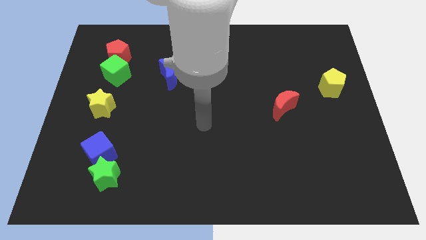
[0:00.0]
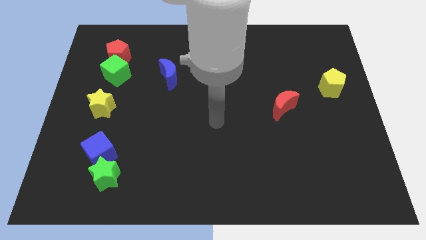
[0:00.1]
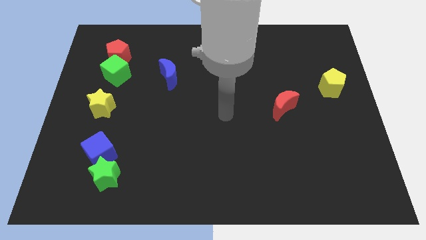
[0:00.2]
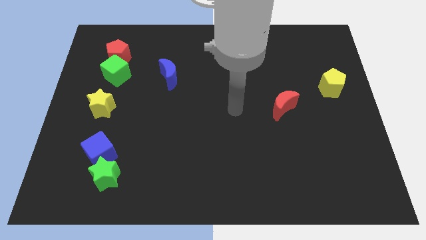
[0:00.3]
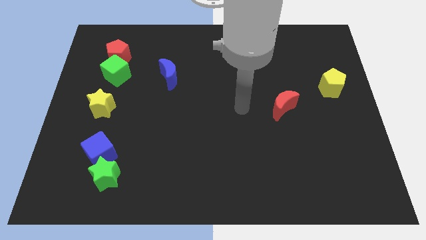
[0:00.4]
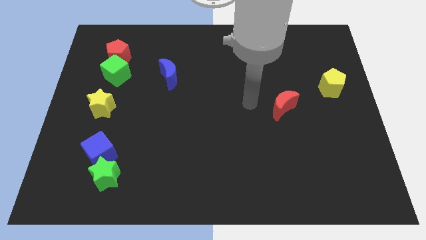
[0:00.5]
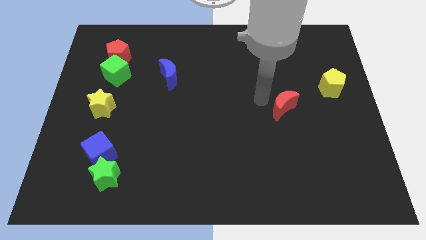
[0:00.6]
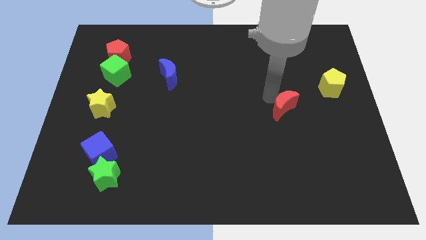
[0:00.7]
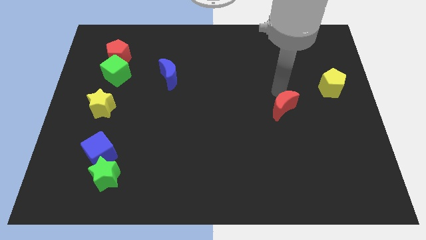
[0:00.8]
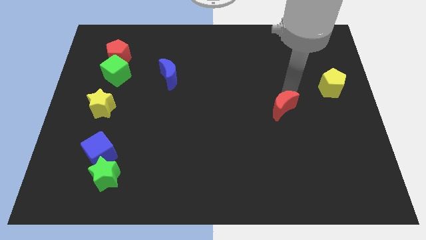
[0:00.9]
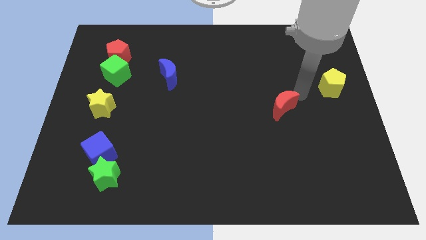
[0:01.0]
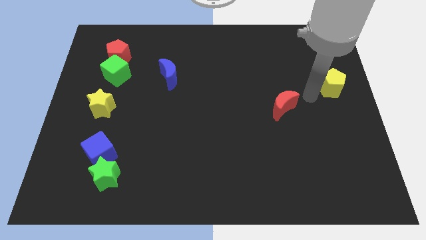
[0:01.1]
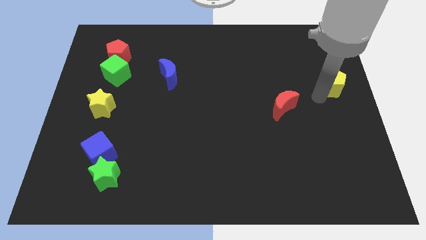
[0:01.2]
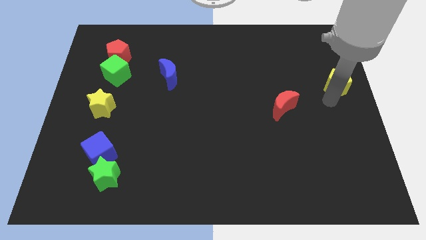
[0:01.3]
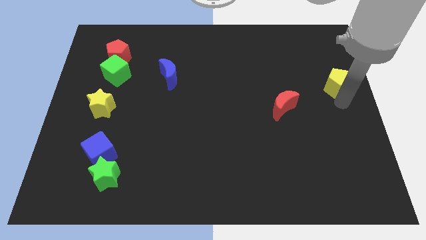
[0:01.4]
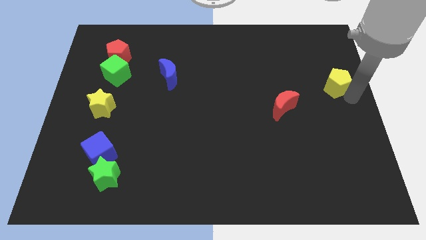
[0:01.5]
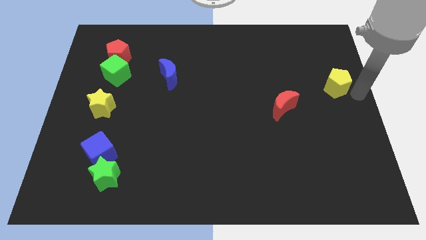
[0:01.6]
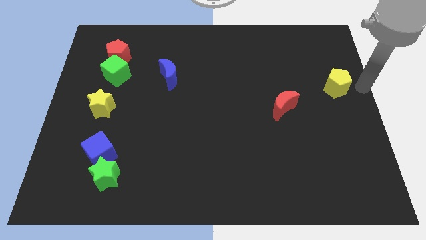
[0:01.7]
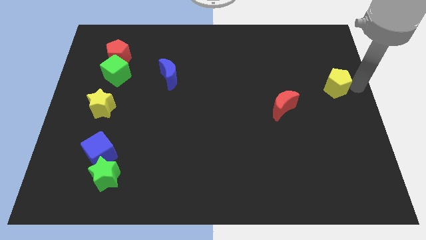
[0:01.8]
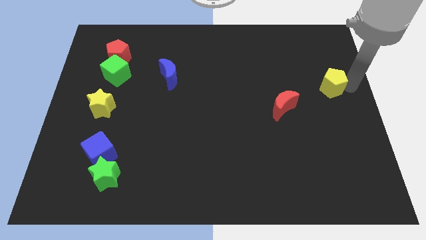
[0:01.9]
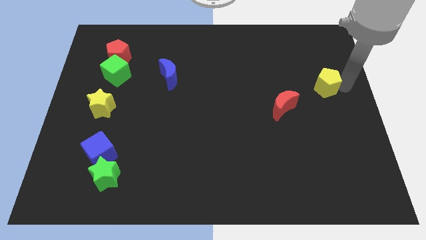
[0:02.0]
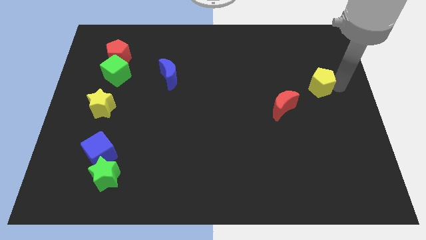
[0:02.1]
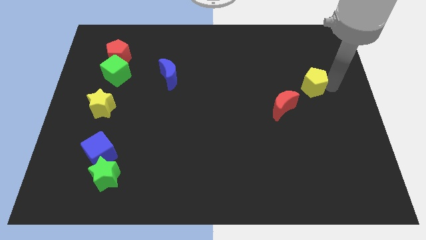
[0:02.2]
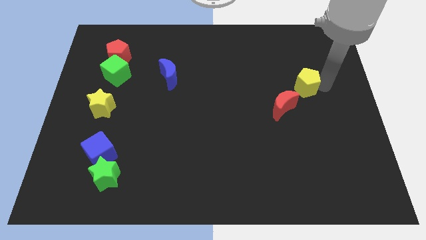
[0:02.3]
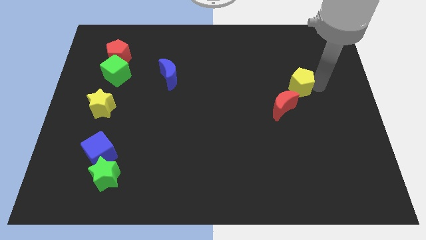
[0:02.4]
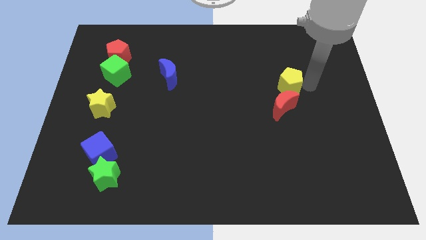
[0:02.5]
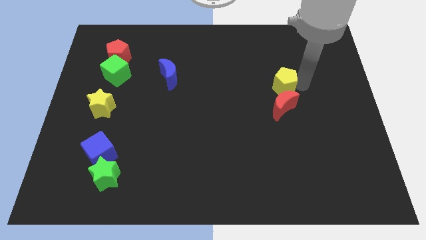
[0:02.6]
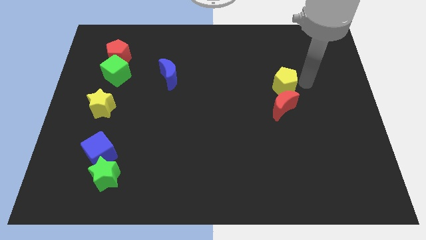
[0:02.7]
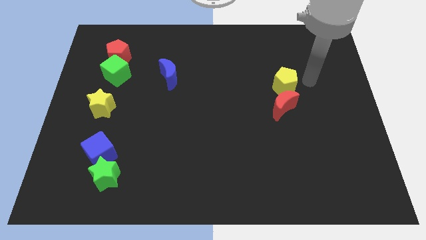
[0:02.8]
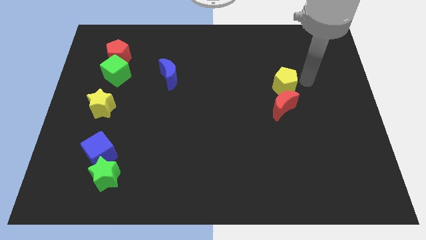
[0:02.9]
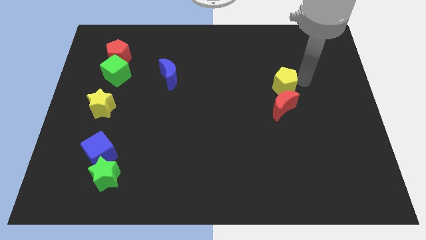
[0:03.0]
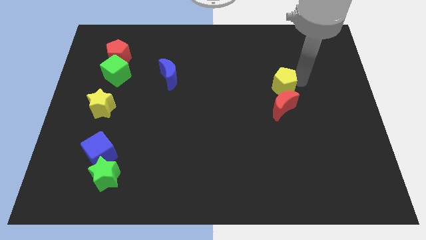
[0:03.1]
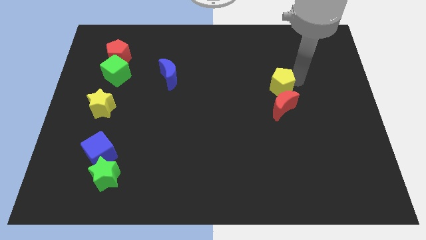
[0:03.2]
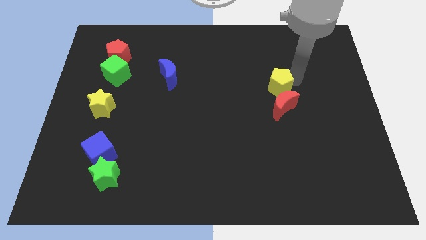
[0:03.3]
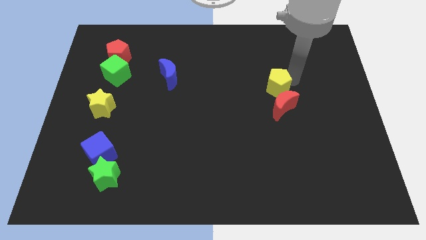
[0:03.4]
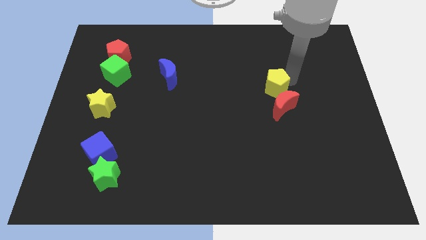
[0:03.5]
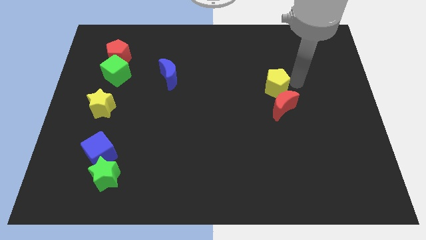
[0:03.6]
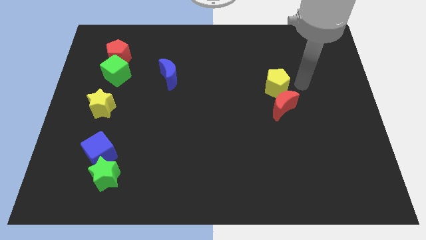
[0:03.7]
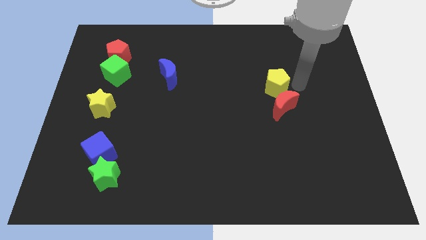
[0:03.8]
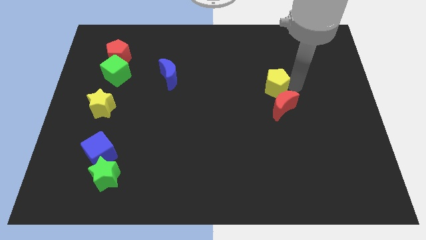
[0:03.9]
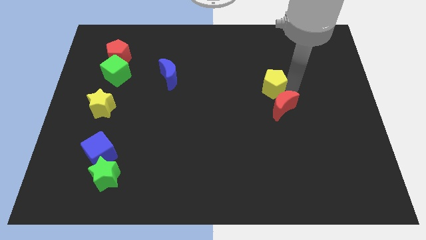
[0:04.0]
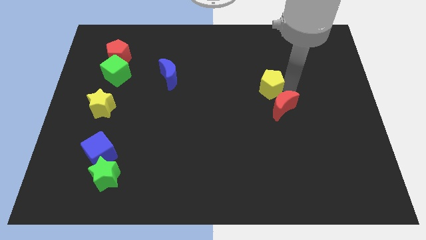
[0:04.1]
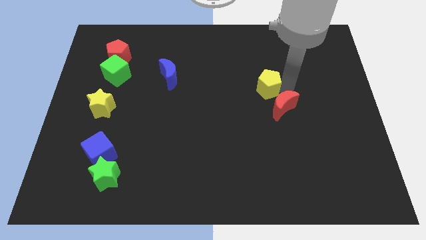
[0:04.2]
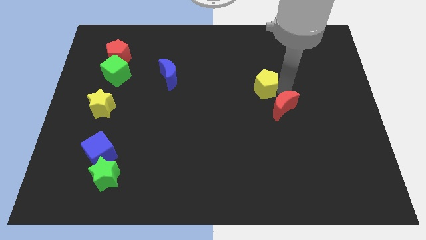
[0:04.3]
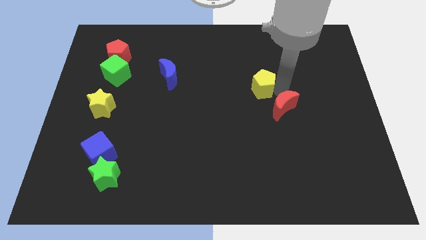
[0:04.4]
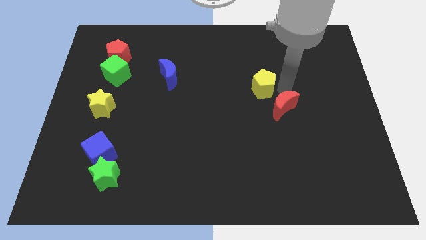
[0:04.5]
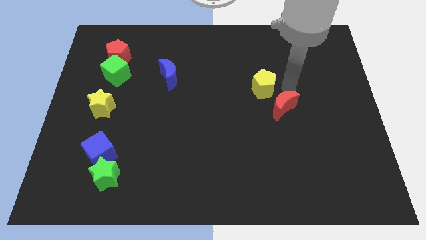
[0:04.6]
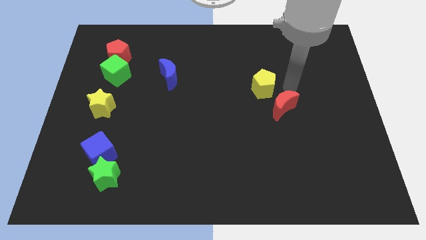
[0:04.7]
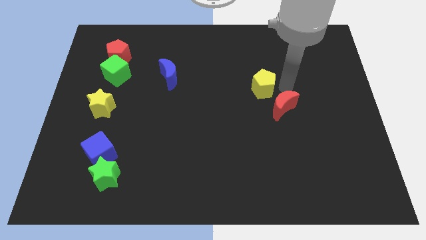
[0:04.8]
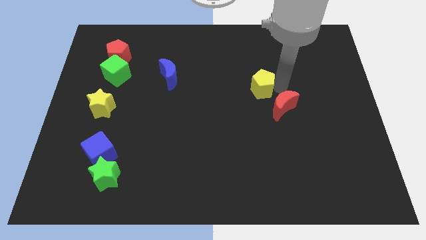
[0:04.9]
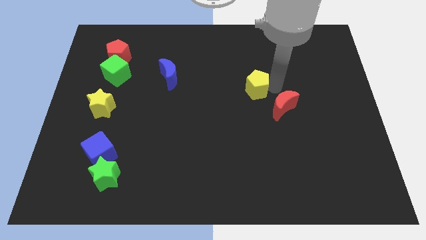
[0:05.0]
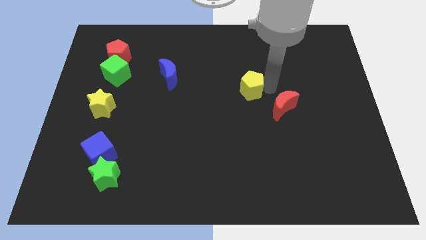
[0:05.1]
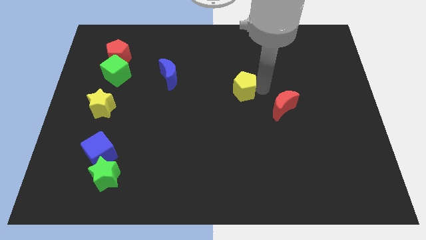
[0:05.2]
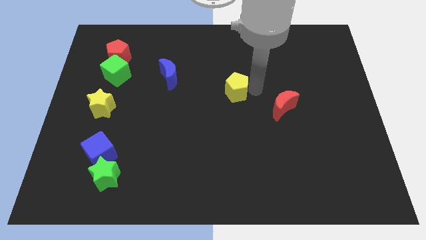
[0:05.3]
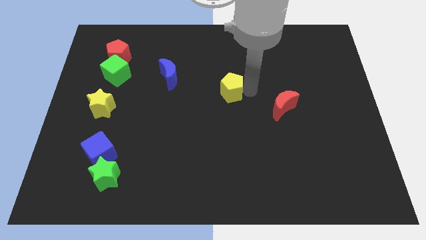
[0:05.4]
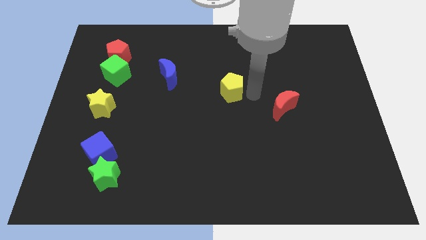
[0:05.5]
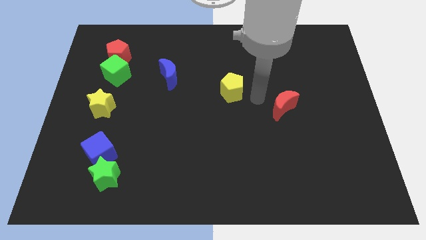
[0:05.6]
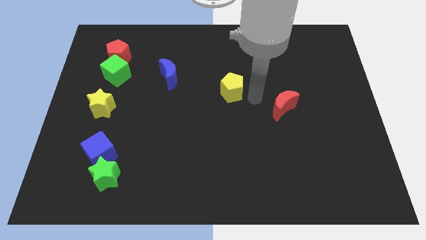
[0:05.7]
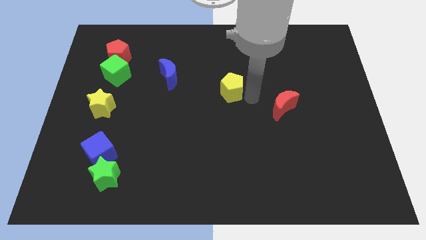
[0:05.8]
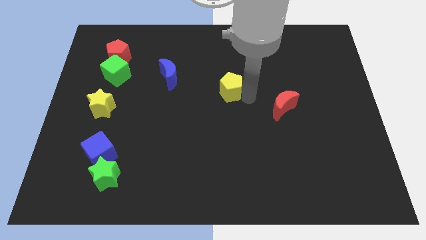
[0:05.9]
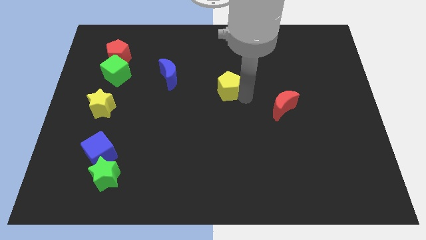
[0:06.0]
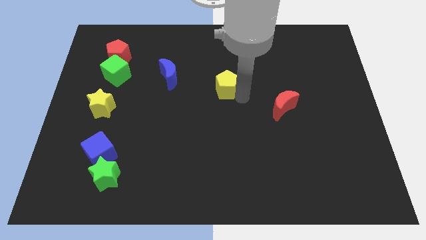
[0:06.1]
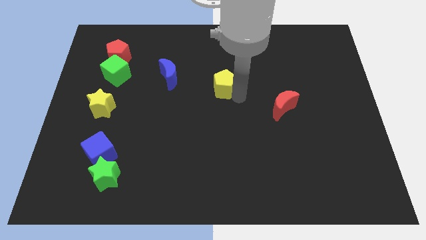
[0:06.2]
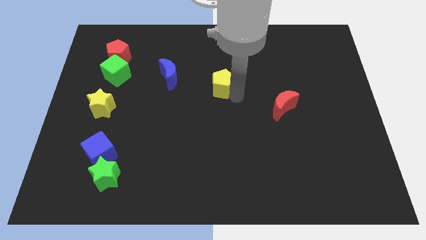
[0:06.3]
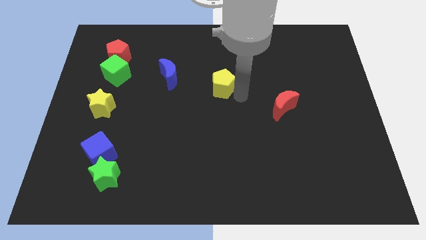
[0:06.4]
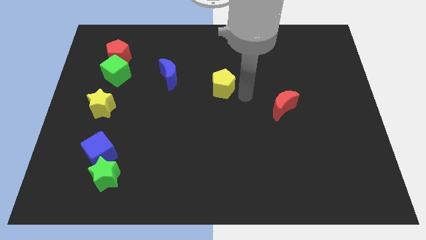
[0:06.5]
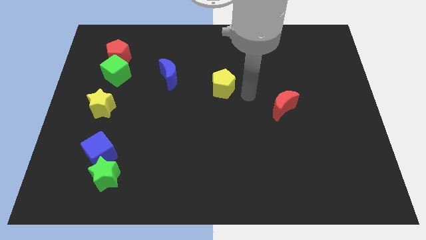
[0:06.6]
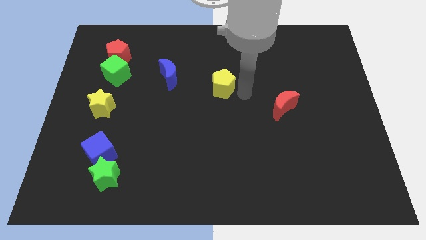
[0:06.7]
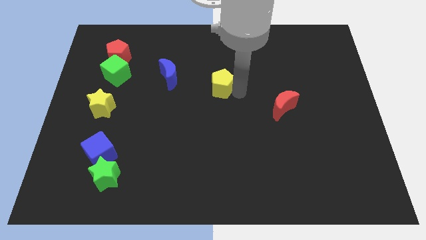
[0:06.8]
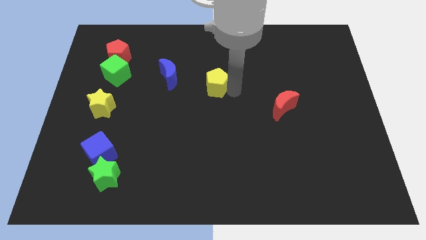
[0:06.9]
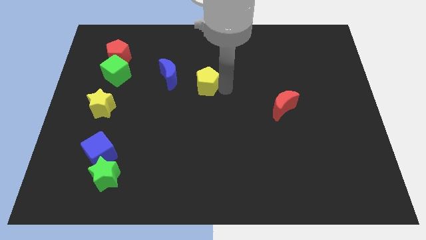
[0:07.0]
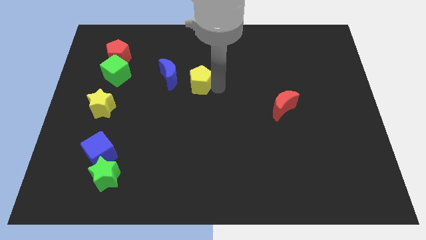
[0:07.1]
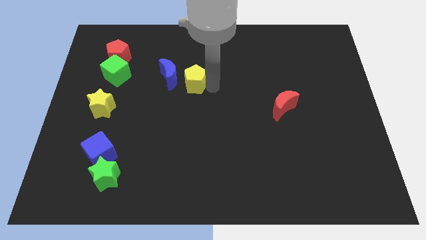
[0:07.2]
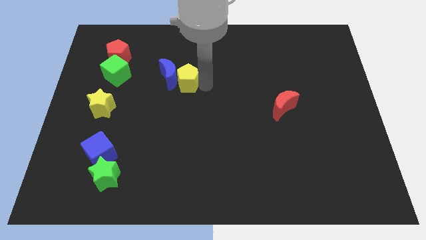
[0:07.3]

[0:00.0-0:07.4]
move the yellow pentagon close to the blue moon
